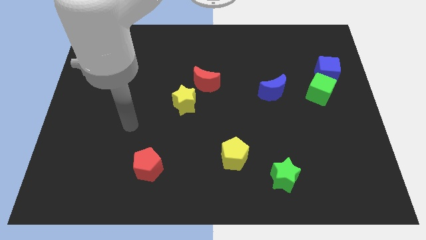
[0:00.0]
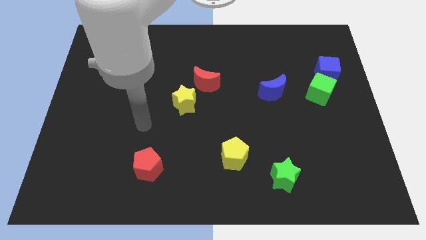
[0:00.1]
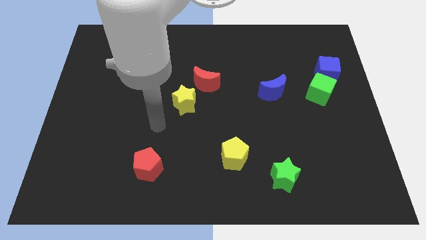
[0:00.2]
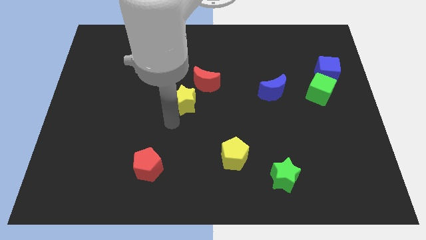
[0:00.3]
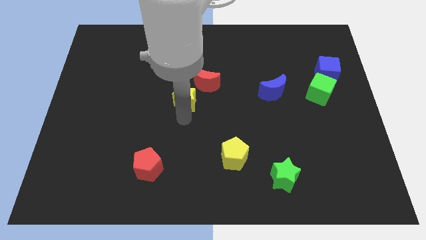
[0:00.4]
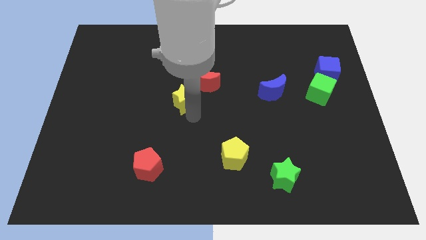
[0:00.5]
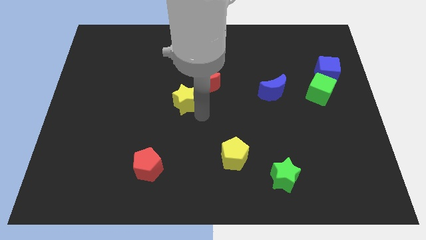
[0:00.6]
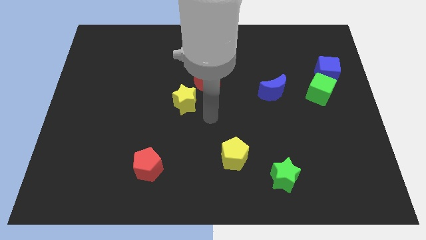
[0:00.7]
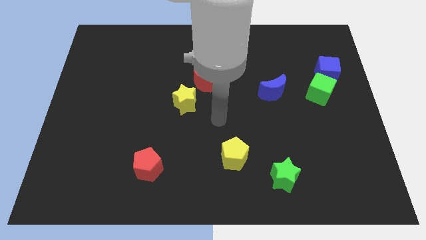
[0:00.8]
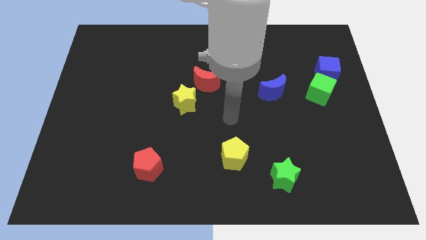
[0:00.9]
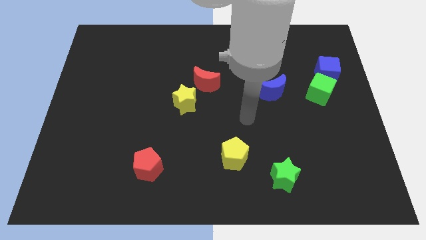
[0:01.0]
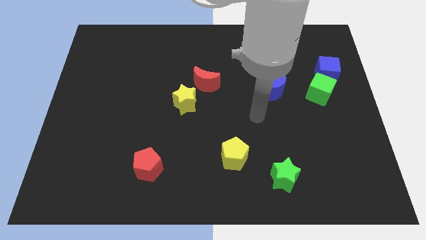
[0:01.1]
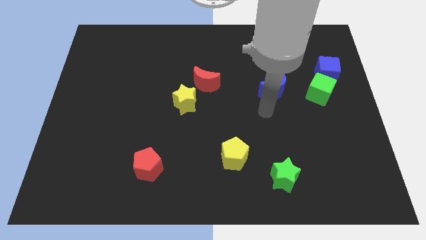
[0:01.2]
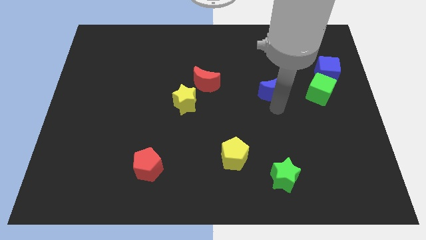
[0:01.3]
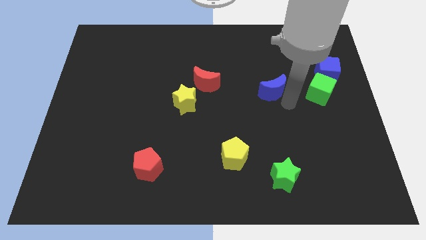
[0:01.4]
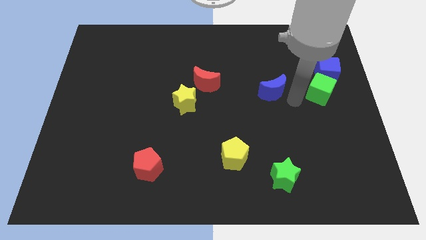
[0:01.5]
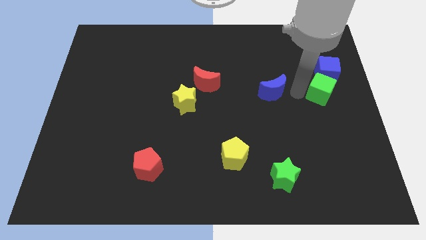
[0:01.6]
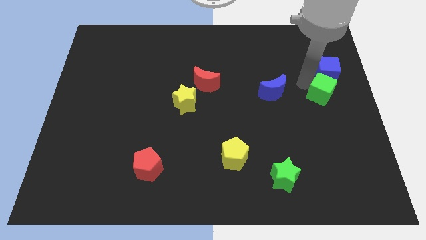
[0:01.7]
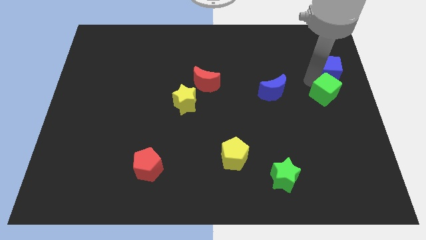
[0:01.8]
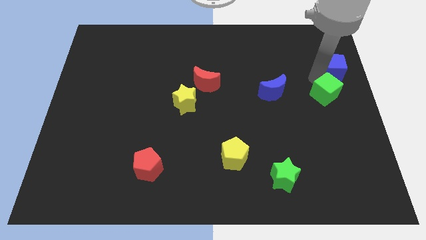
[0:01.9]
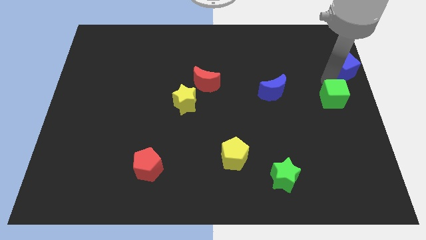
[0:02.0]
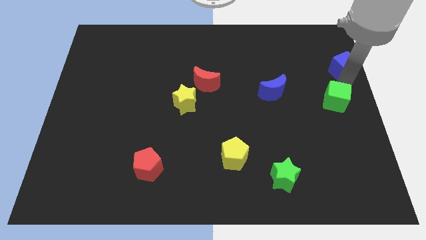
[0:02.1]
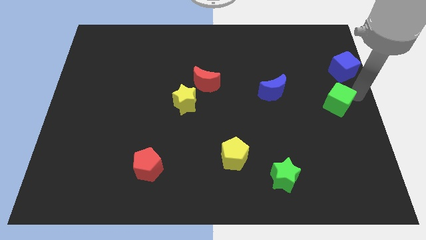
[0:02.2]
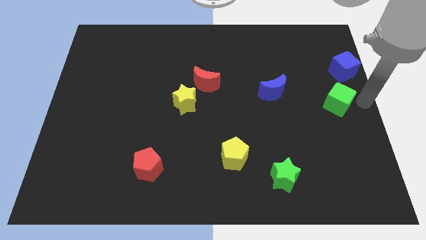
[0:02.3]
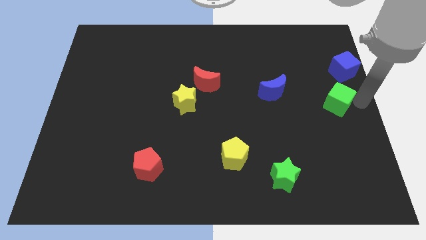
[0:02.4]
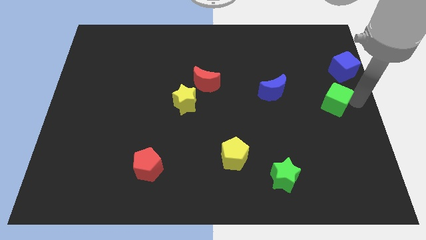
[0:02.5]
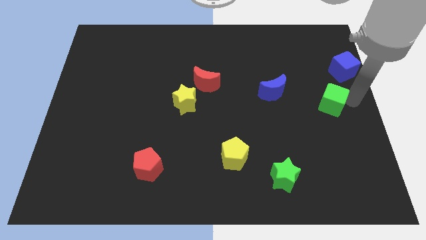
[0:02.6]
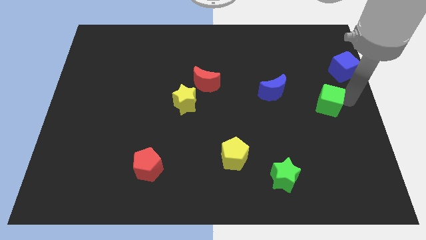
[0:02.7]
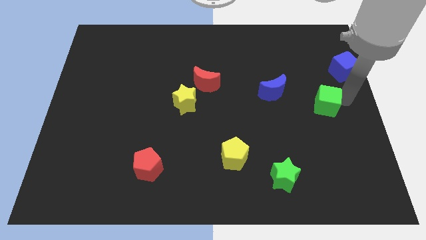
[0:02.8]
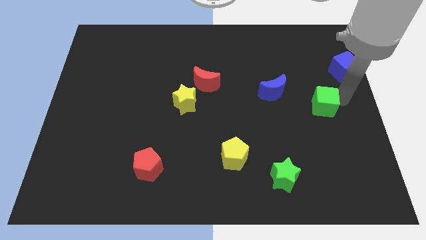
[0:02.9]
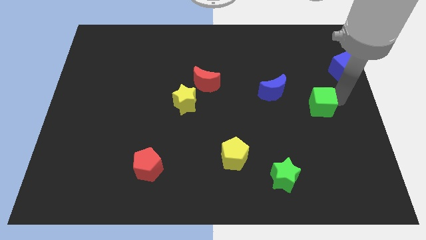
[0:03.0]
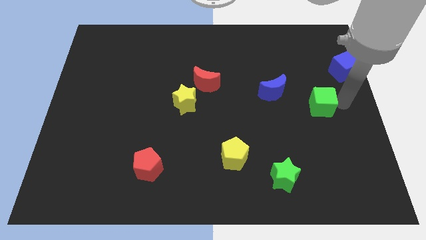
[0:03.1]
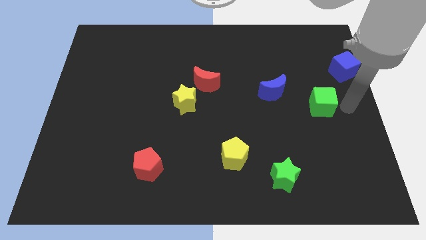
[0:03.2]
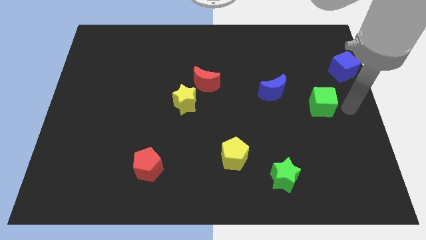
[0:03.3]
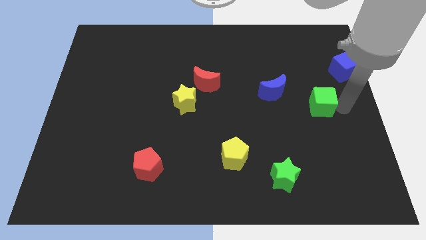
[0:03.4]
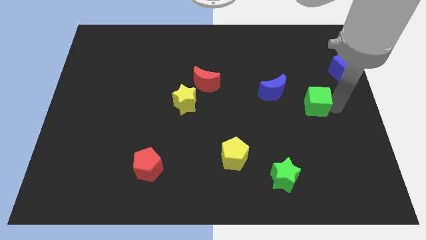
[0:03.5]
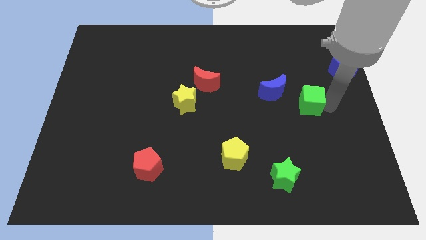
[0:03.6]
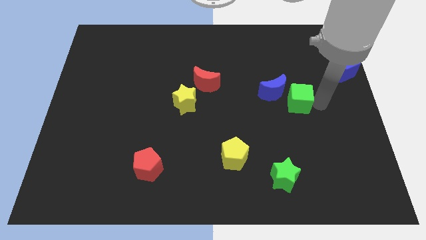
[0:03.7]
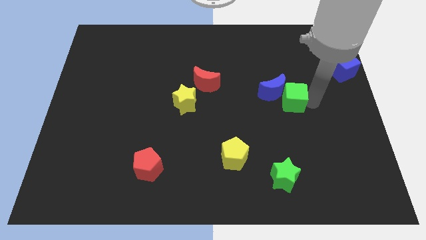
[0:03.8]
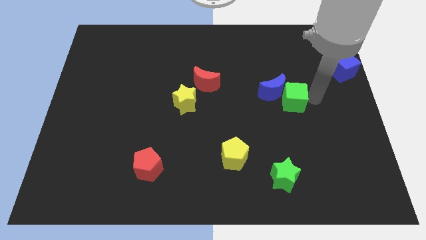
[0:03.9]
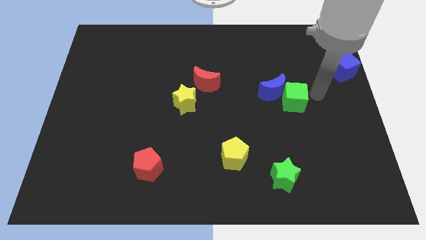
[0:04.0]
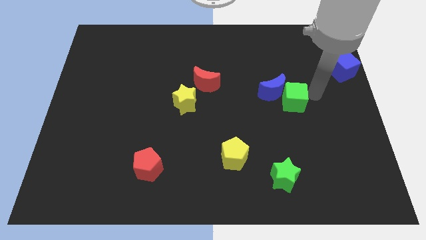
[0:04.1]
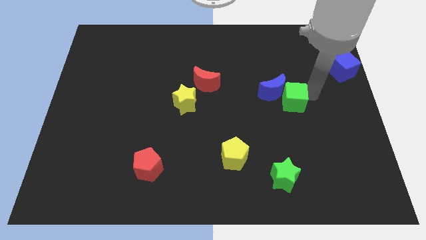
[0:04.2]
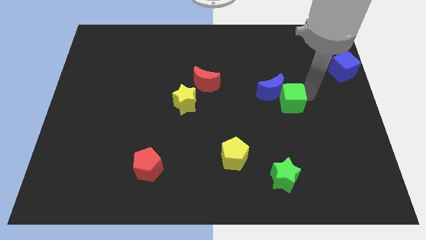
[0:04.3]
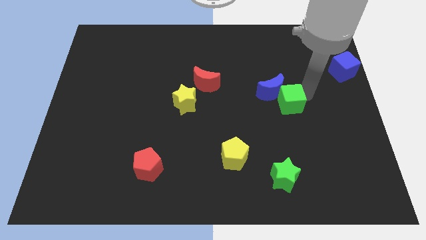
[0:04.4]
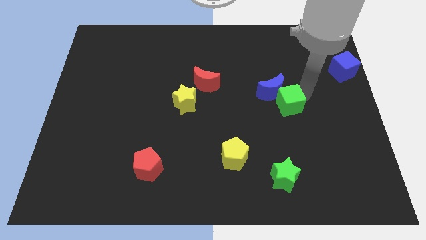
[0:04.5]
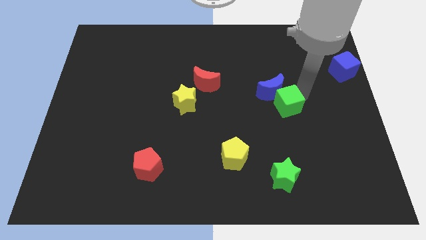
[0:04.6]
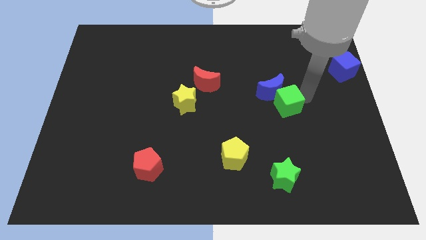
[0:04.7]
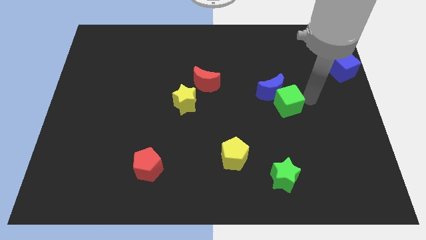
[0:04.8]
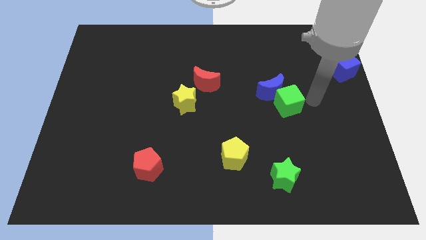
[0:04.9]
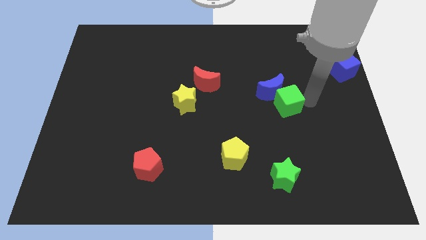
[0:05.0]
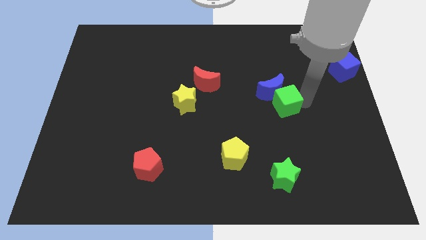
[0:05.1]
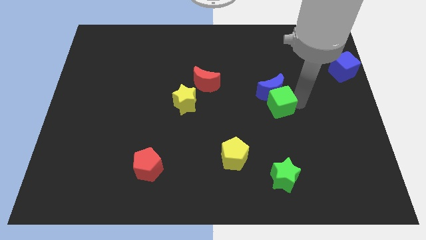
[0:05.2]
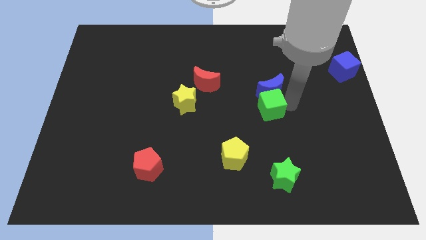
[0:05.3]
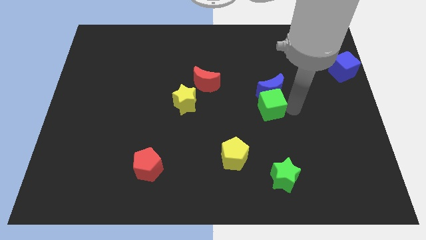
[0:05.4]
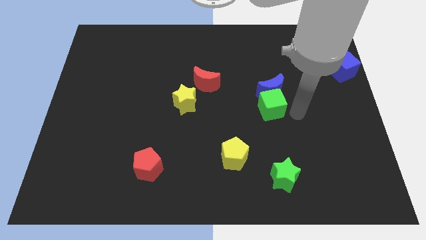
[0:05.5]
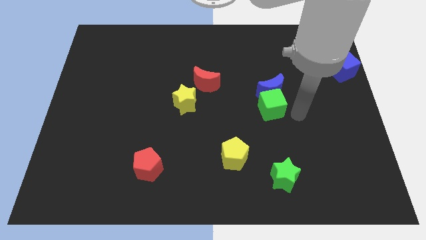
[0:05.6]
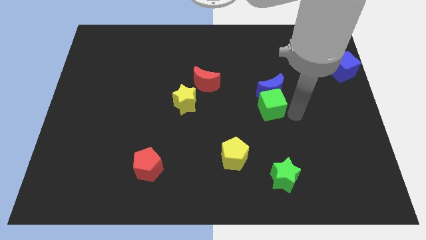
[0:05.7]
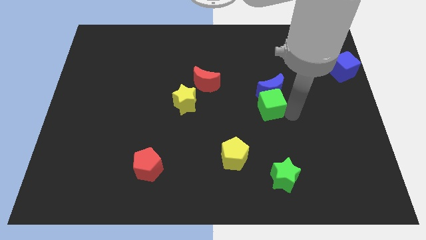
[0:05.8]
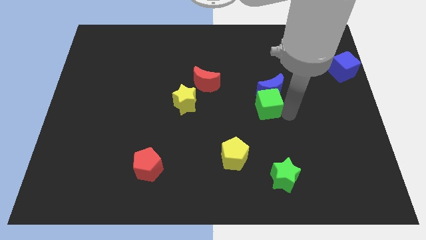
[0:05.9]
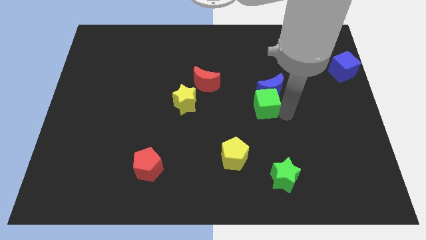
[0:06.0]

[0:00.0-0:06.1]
push the green cube to the middle

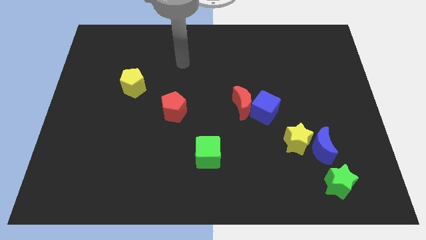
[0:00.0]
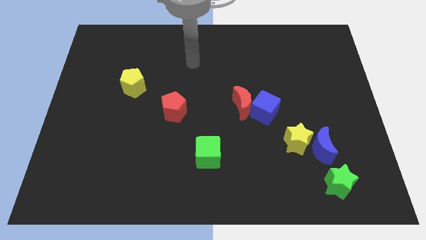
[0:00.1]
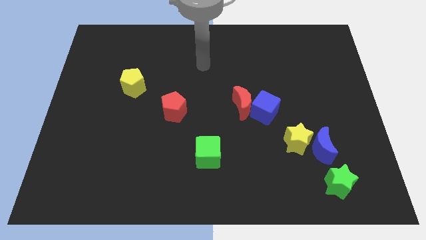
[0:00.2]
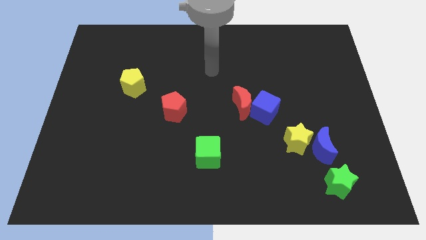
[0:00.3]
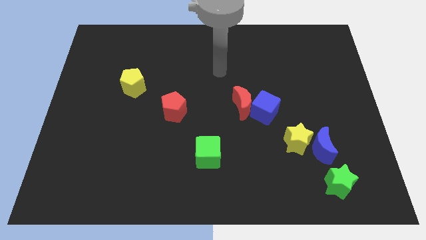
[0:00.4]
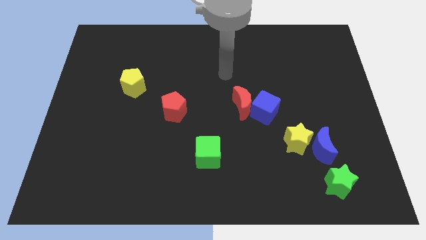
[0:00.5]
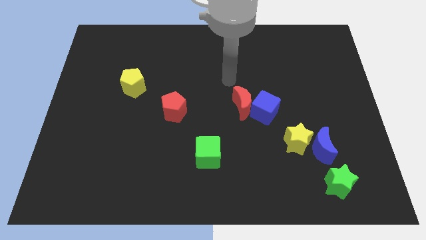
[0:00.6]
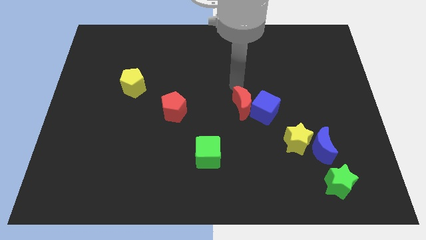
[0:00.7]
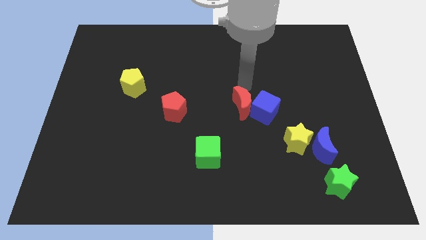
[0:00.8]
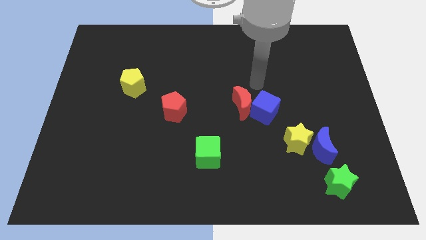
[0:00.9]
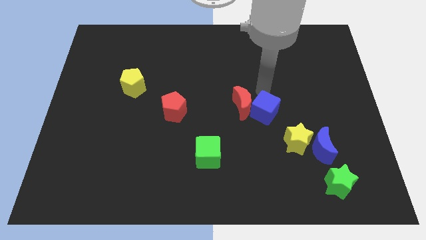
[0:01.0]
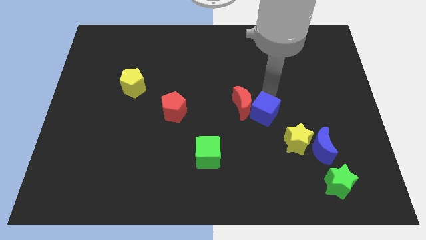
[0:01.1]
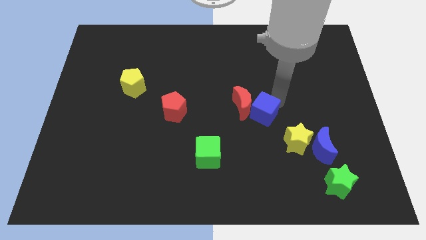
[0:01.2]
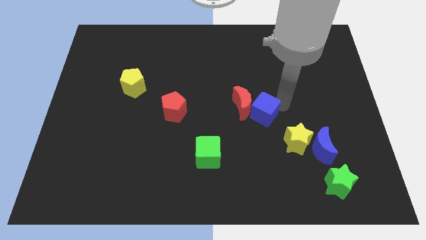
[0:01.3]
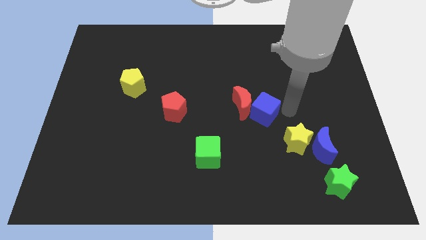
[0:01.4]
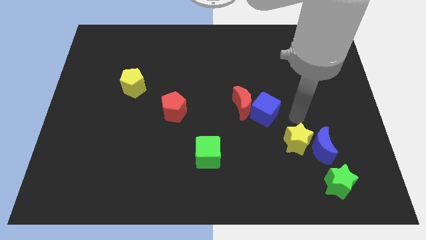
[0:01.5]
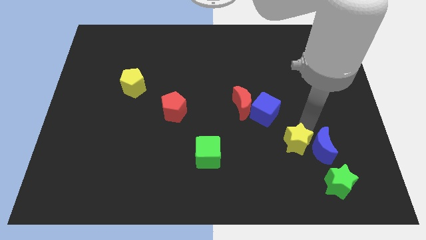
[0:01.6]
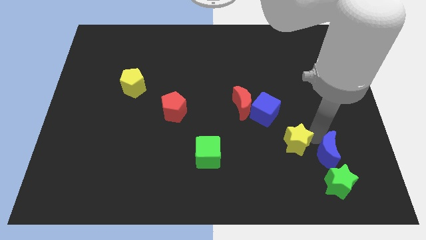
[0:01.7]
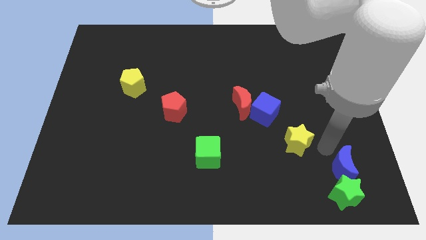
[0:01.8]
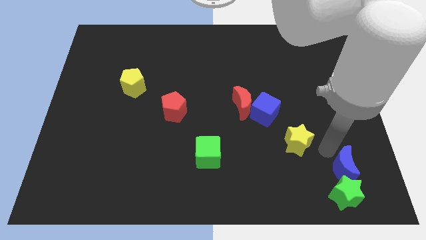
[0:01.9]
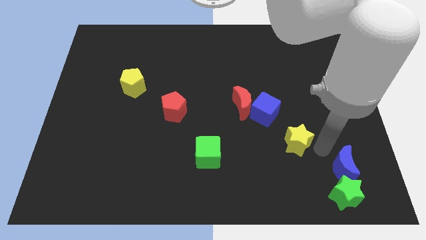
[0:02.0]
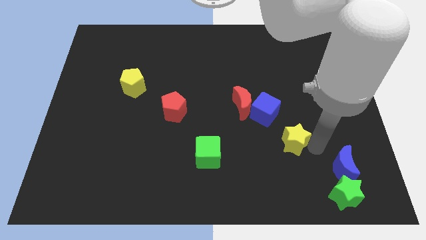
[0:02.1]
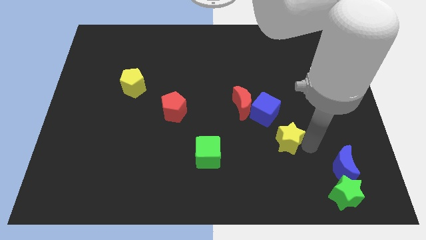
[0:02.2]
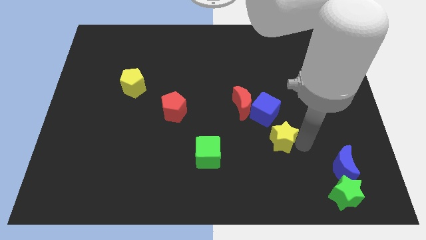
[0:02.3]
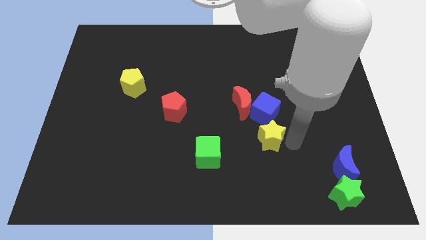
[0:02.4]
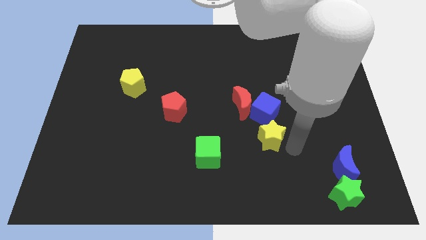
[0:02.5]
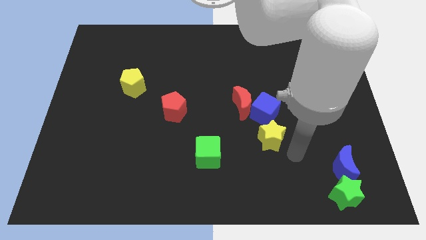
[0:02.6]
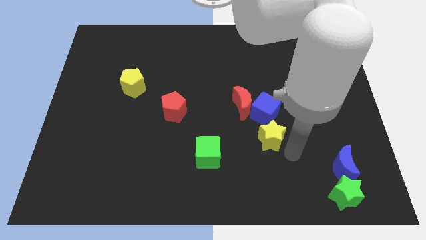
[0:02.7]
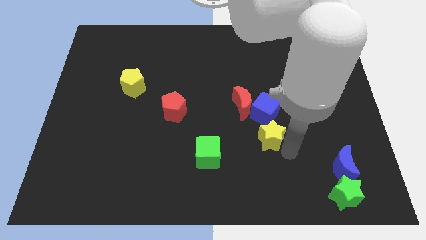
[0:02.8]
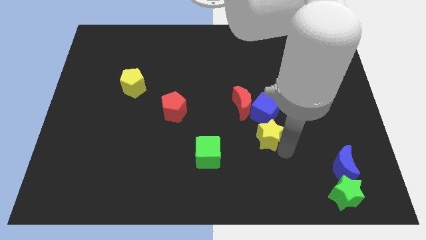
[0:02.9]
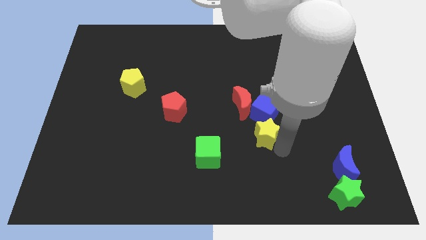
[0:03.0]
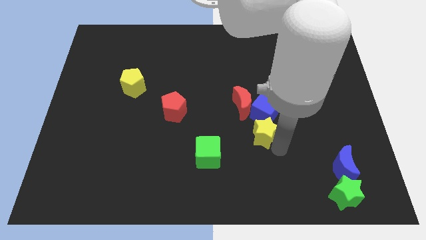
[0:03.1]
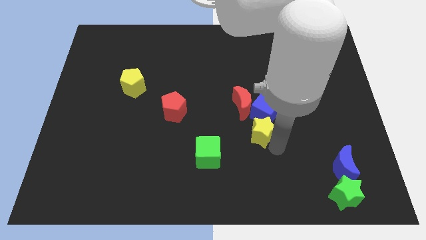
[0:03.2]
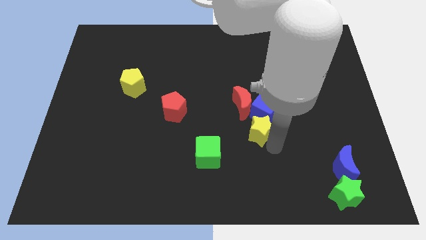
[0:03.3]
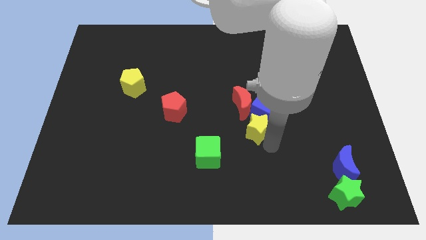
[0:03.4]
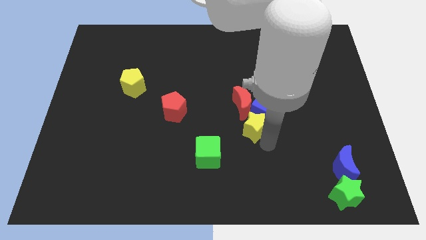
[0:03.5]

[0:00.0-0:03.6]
slide the yellow star to the middle
